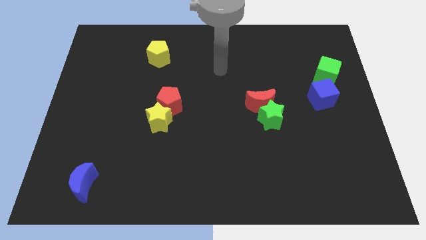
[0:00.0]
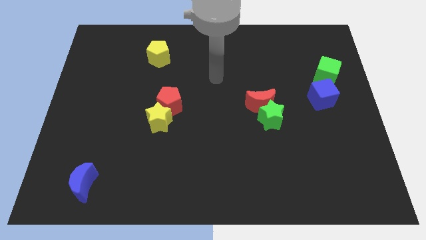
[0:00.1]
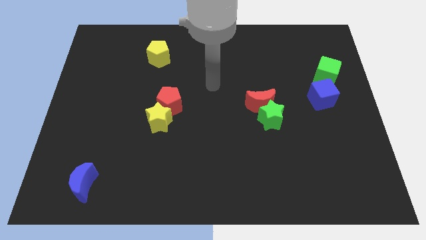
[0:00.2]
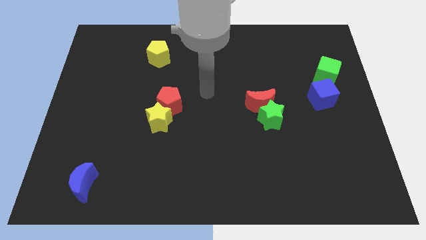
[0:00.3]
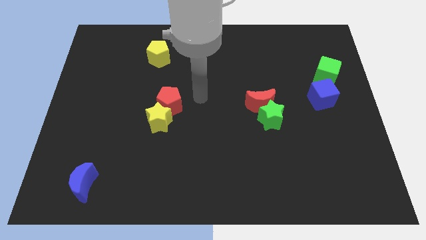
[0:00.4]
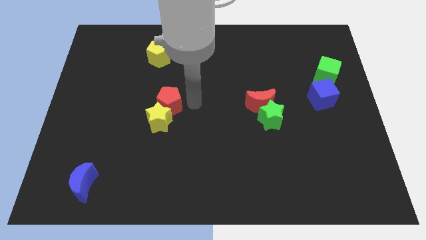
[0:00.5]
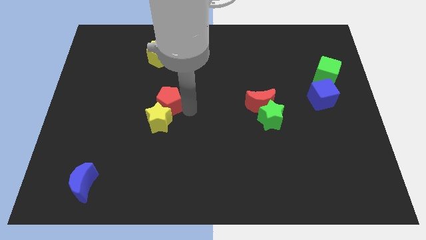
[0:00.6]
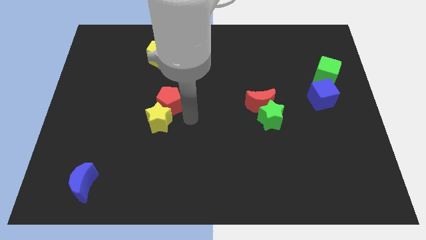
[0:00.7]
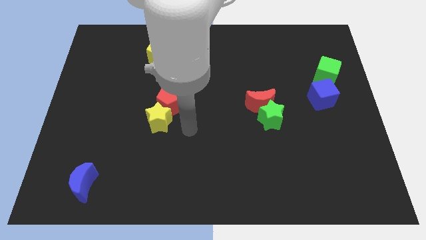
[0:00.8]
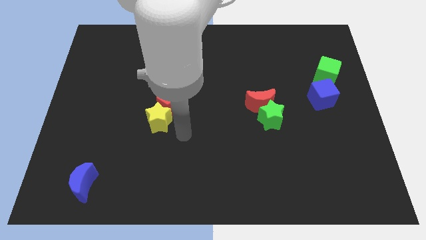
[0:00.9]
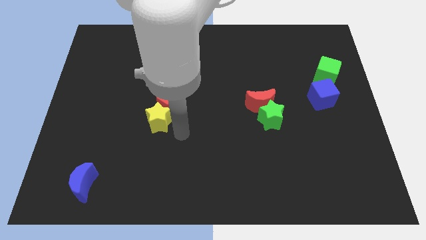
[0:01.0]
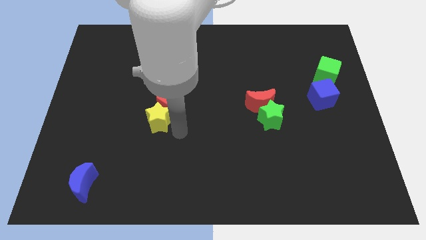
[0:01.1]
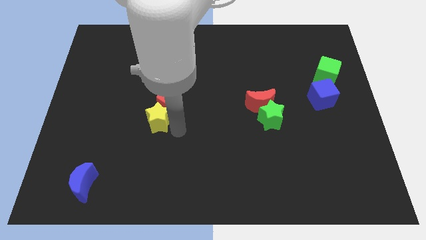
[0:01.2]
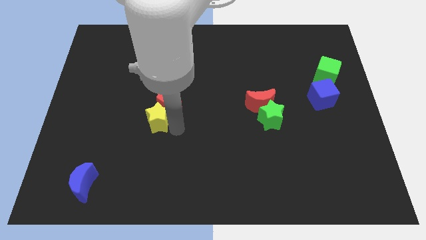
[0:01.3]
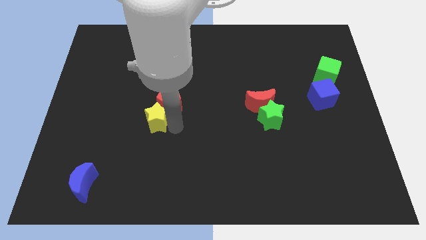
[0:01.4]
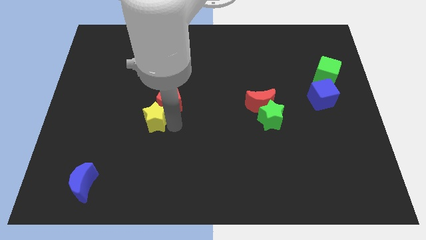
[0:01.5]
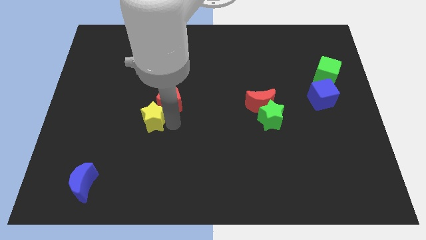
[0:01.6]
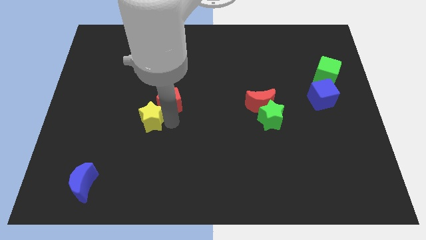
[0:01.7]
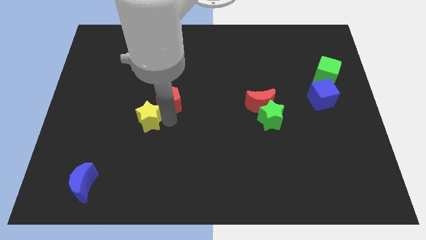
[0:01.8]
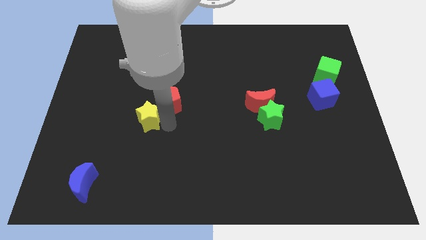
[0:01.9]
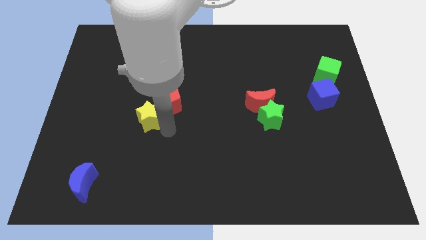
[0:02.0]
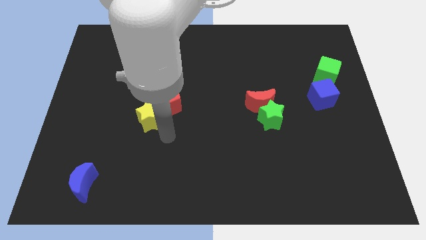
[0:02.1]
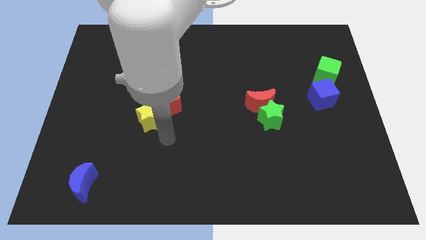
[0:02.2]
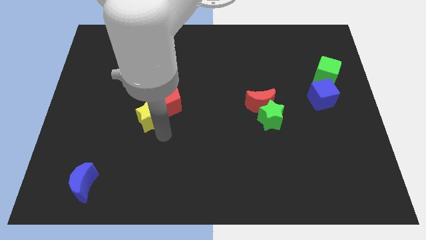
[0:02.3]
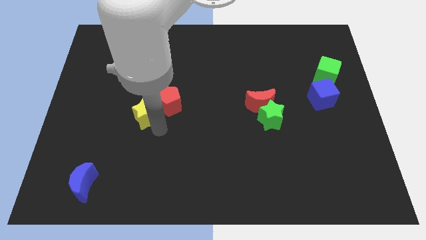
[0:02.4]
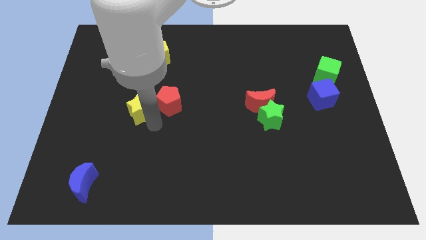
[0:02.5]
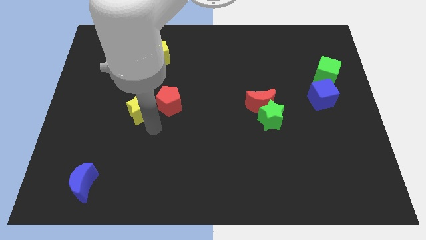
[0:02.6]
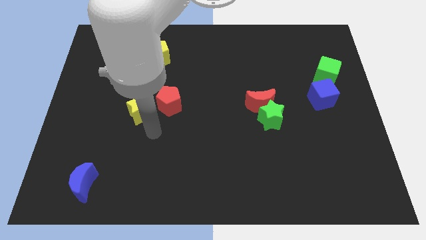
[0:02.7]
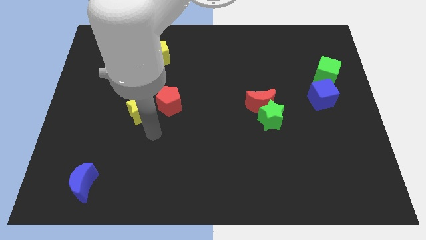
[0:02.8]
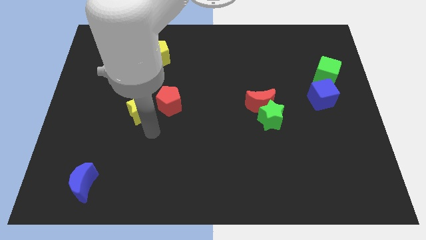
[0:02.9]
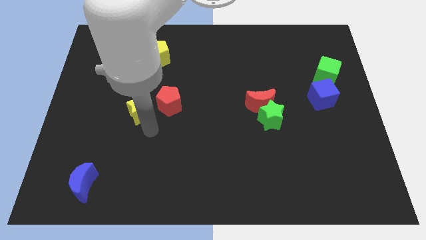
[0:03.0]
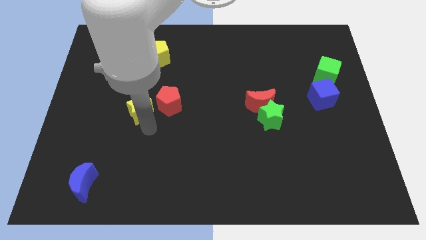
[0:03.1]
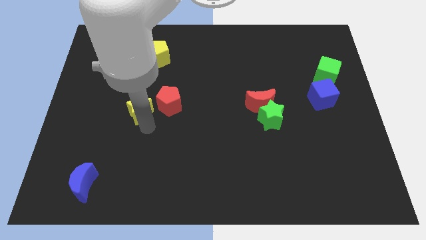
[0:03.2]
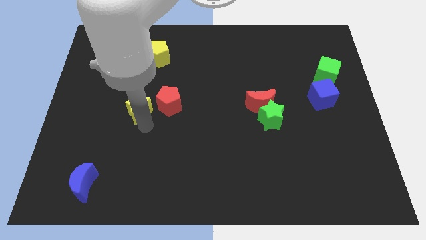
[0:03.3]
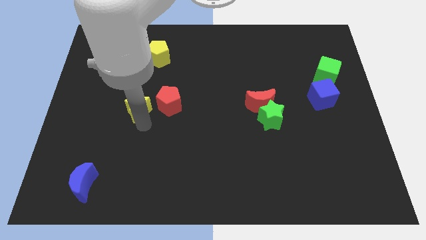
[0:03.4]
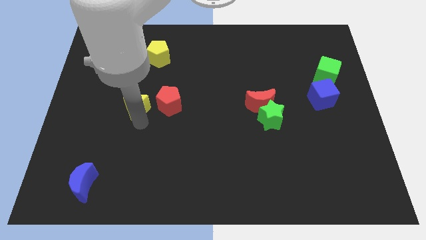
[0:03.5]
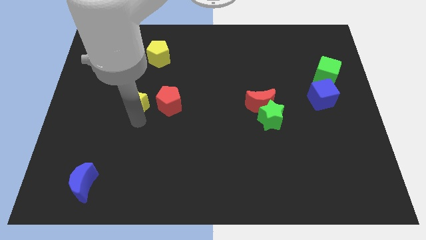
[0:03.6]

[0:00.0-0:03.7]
slightly push the yellow star upwards and then left

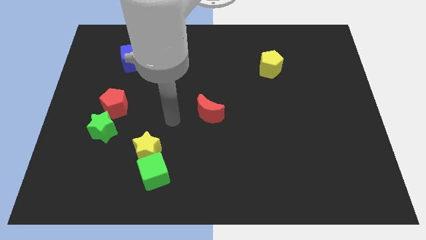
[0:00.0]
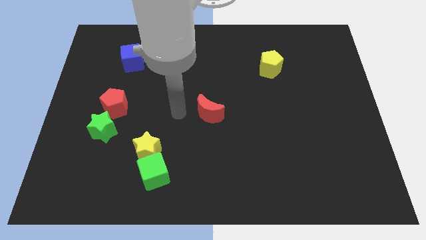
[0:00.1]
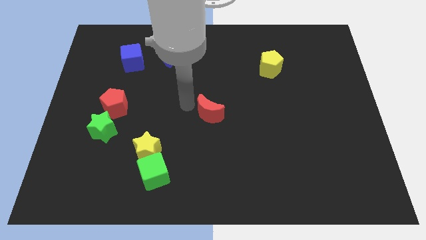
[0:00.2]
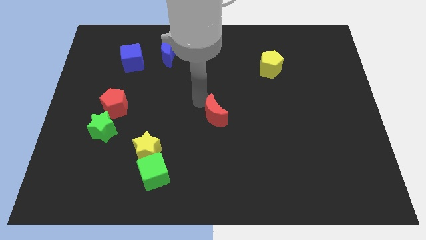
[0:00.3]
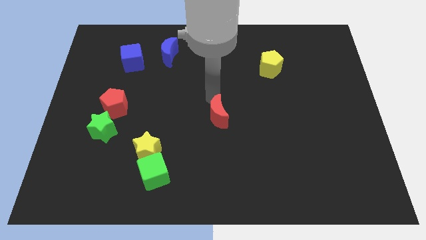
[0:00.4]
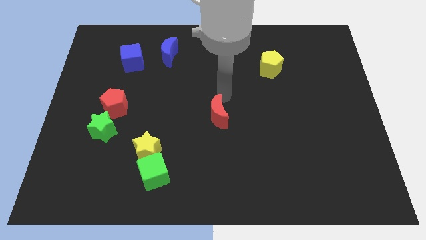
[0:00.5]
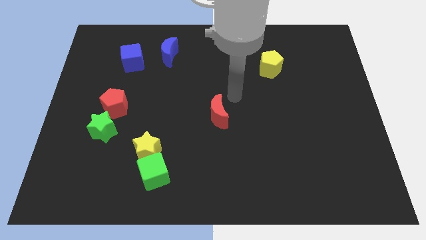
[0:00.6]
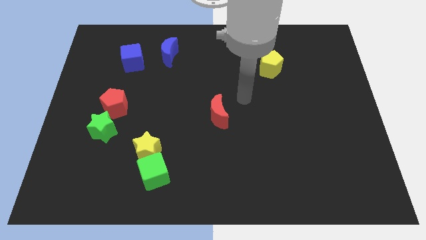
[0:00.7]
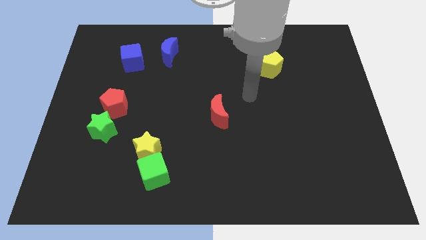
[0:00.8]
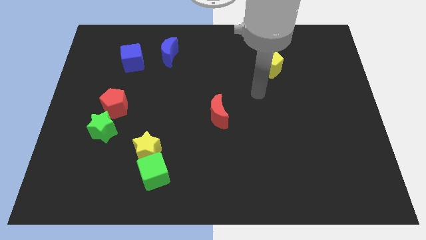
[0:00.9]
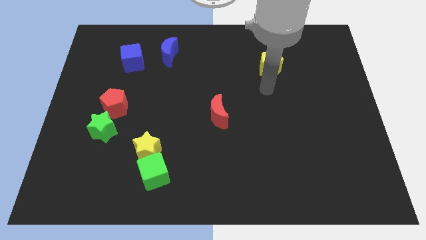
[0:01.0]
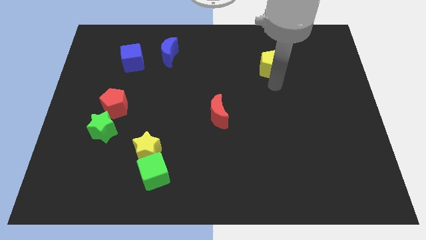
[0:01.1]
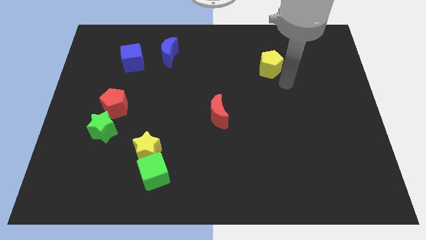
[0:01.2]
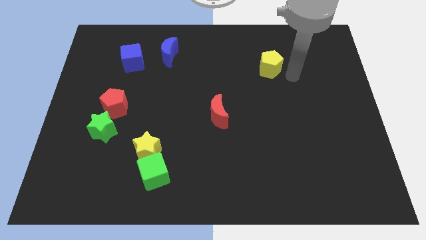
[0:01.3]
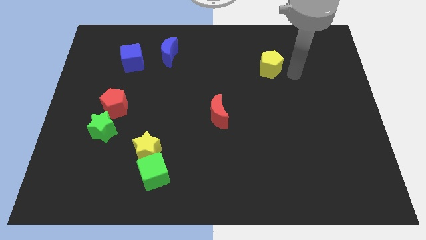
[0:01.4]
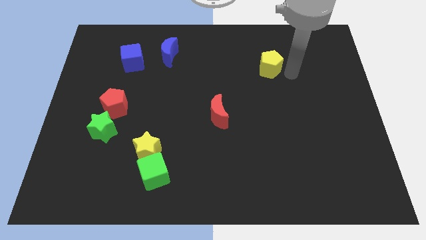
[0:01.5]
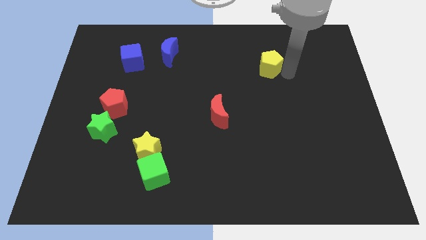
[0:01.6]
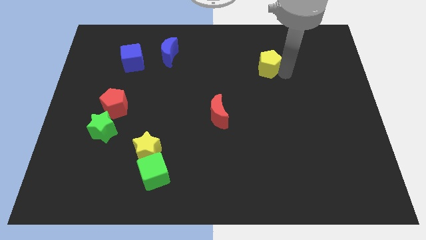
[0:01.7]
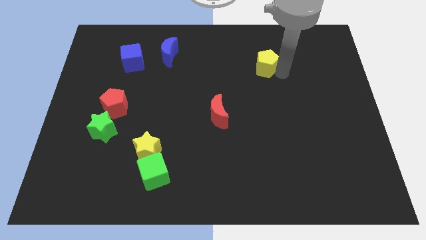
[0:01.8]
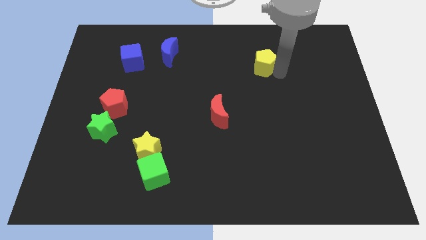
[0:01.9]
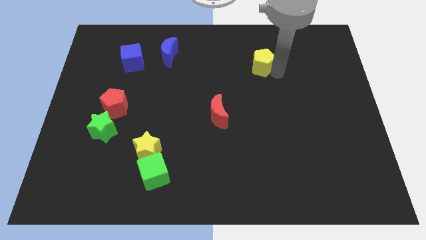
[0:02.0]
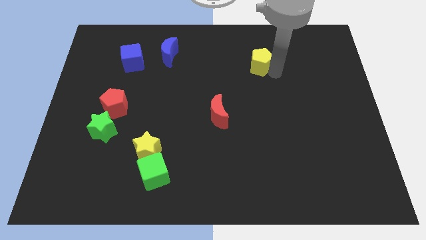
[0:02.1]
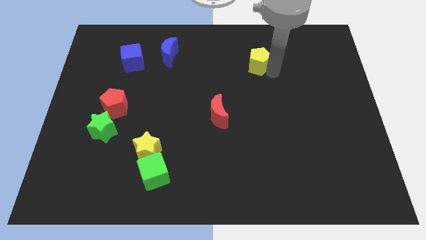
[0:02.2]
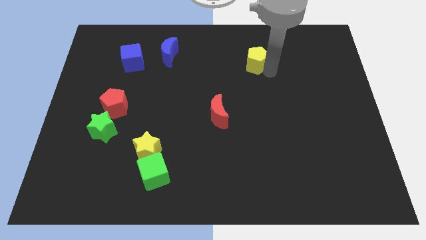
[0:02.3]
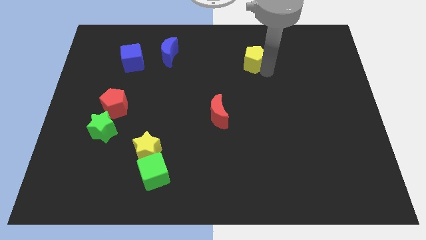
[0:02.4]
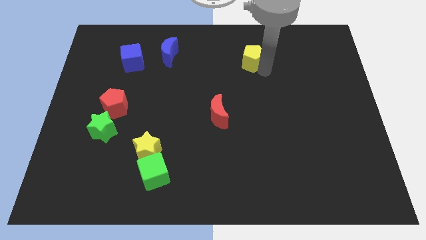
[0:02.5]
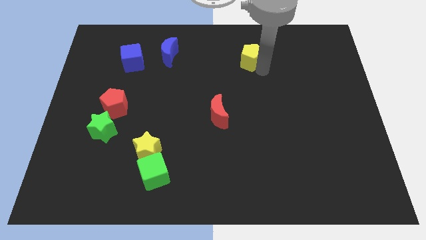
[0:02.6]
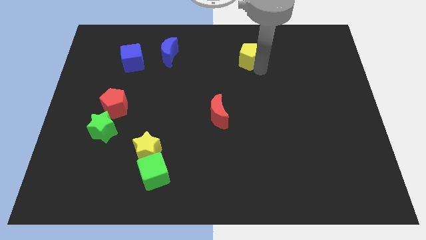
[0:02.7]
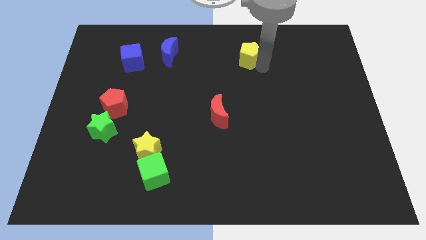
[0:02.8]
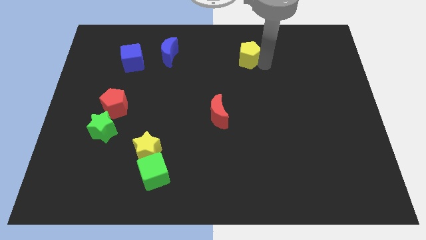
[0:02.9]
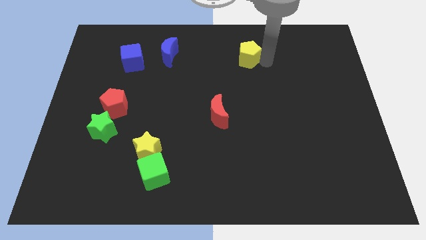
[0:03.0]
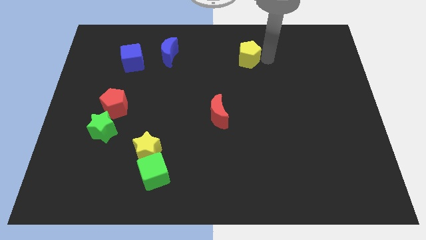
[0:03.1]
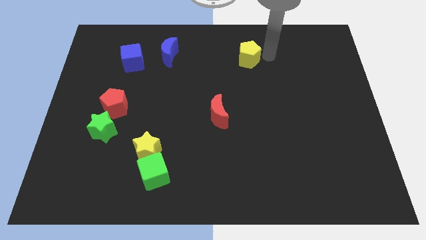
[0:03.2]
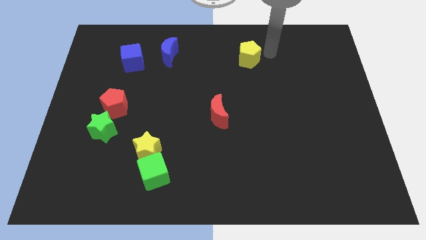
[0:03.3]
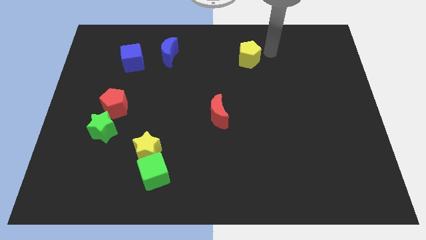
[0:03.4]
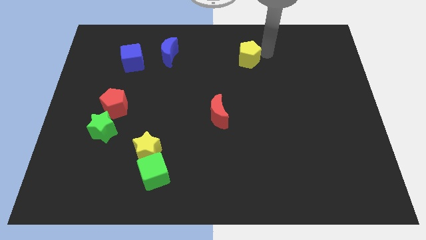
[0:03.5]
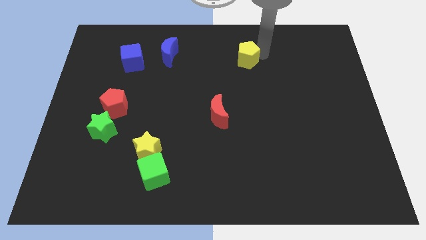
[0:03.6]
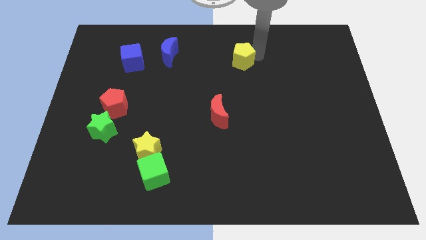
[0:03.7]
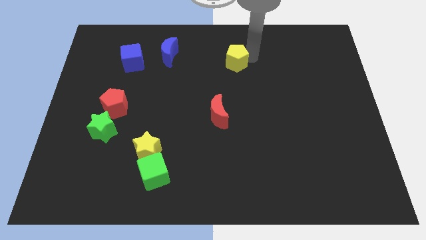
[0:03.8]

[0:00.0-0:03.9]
slide the yellow pentagon a little bit to the left

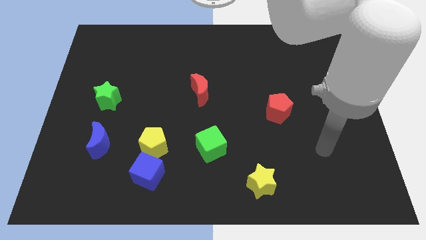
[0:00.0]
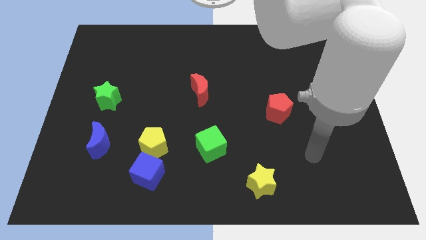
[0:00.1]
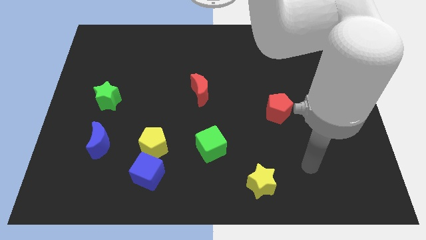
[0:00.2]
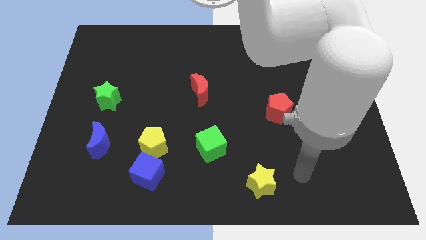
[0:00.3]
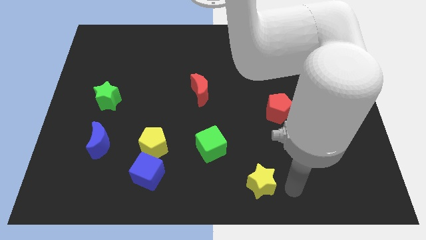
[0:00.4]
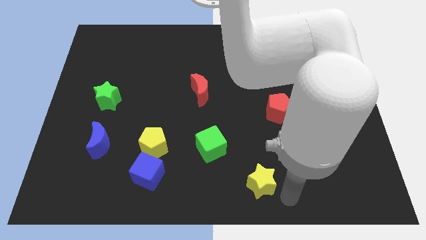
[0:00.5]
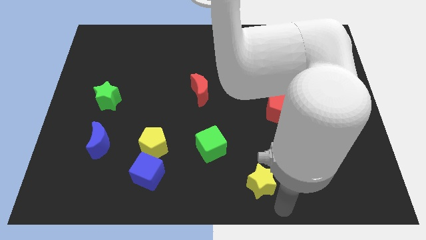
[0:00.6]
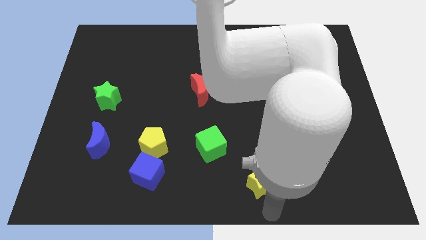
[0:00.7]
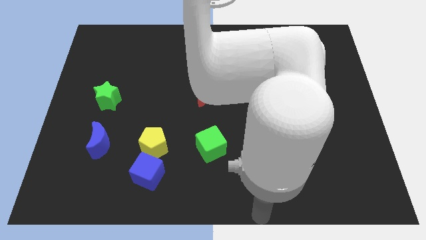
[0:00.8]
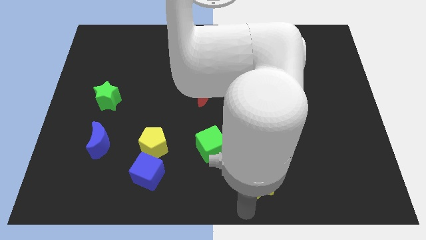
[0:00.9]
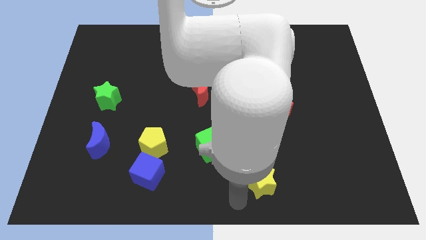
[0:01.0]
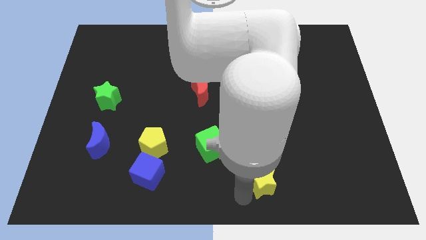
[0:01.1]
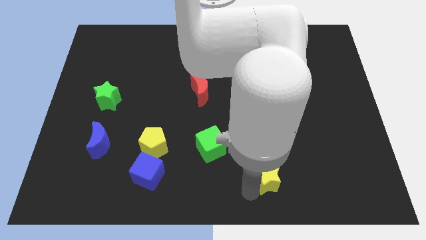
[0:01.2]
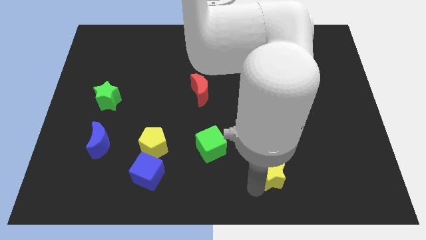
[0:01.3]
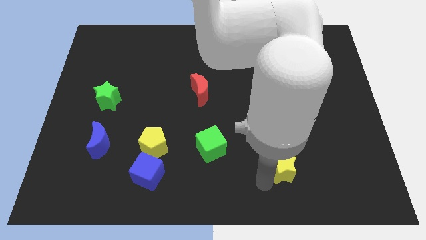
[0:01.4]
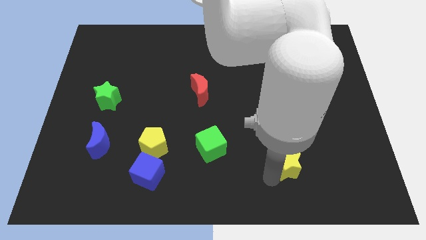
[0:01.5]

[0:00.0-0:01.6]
move the yellow star upwards and to the right slightly
